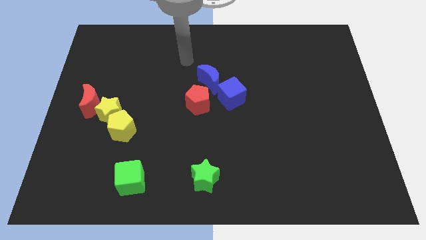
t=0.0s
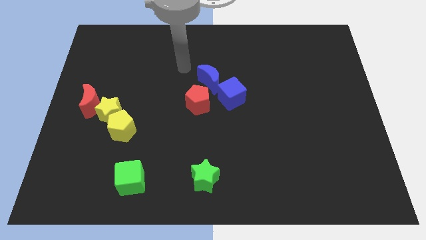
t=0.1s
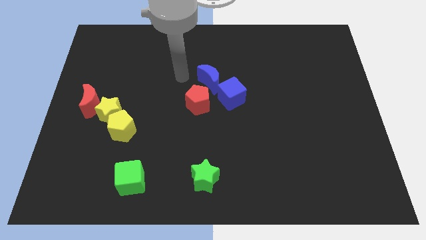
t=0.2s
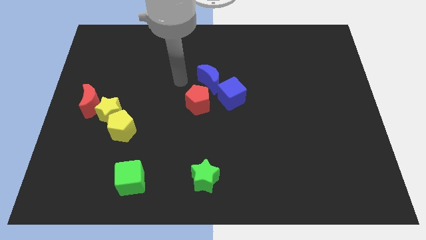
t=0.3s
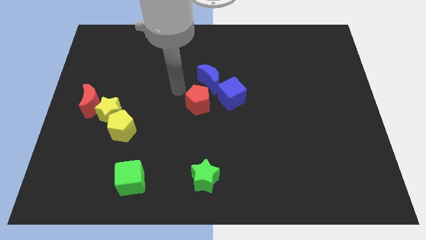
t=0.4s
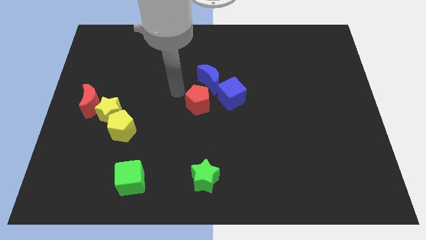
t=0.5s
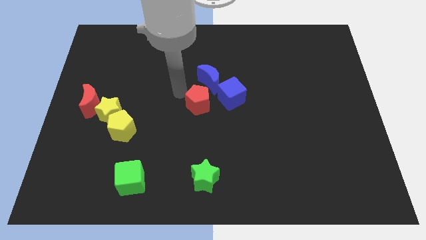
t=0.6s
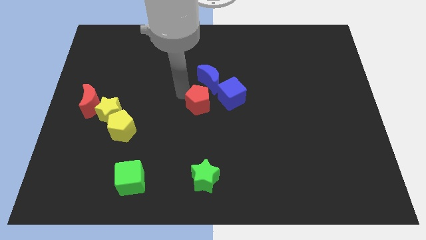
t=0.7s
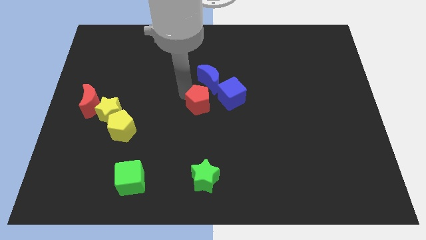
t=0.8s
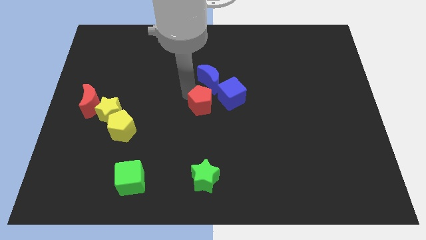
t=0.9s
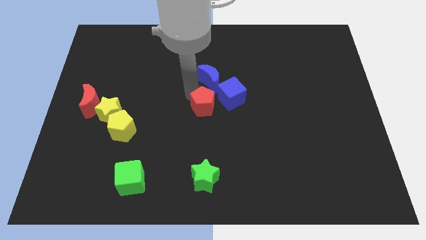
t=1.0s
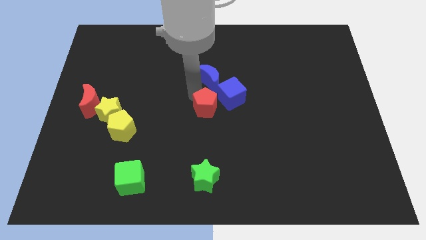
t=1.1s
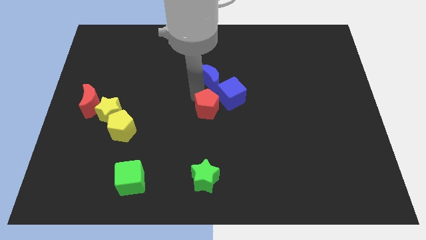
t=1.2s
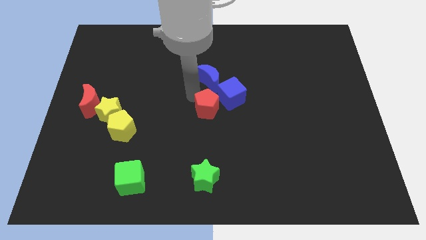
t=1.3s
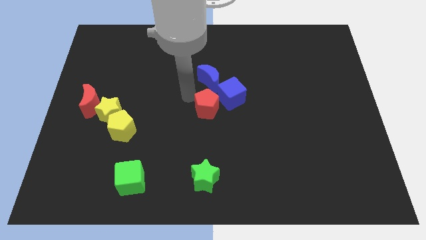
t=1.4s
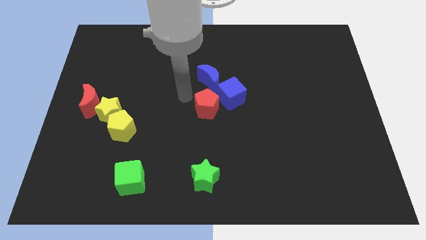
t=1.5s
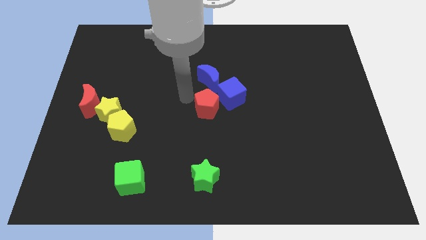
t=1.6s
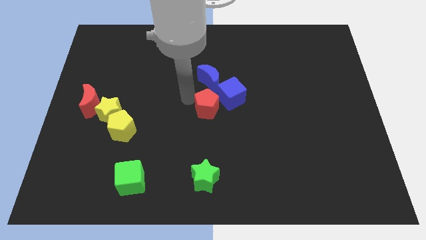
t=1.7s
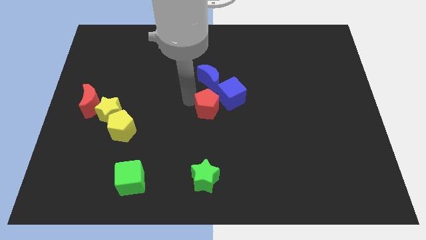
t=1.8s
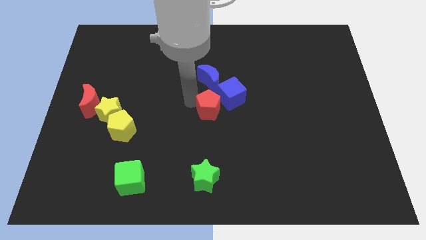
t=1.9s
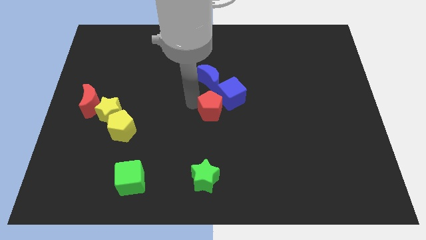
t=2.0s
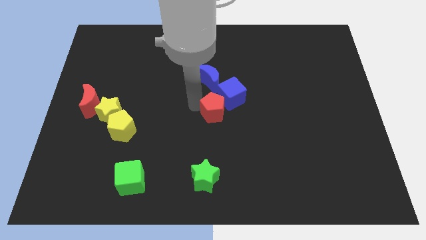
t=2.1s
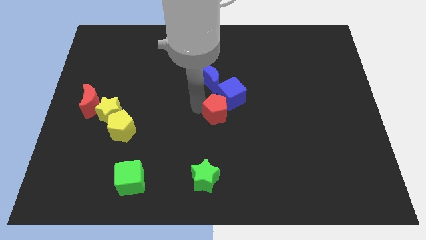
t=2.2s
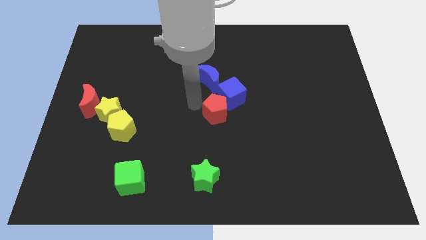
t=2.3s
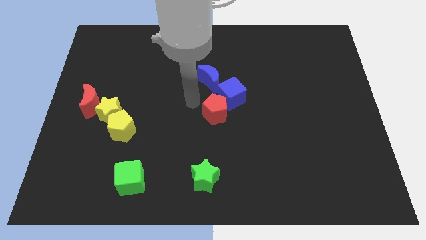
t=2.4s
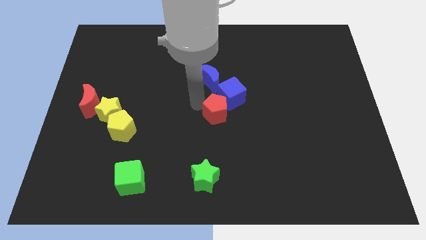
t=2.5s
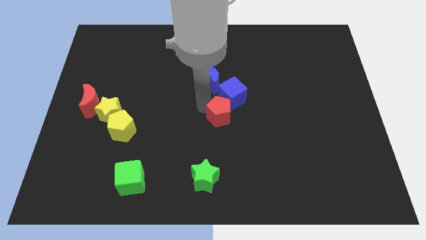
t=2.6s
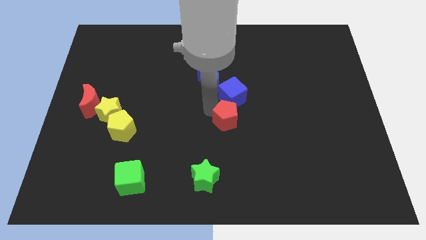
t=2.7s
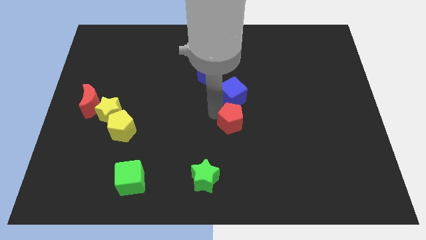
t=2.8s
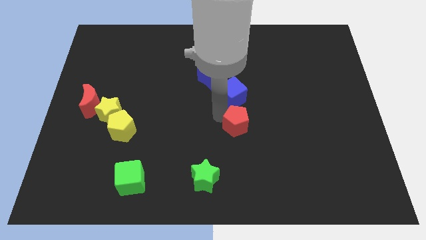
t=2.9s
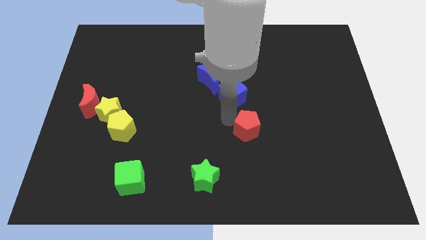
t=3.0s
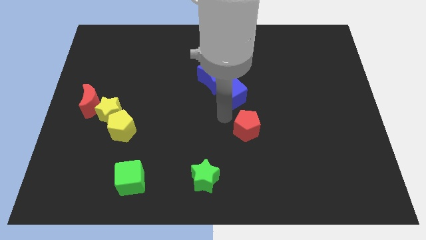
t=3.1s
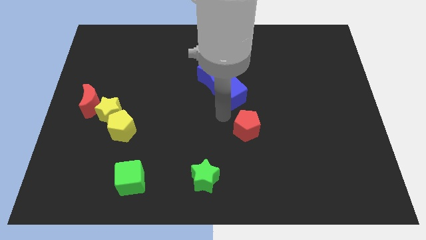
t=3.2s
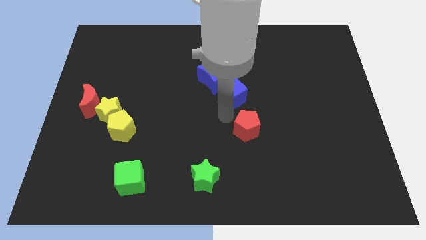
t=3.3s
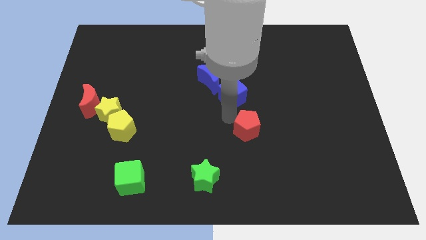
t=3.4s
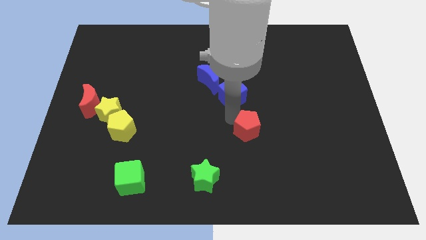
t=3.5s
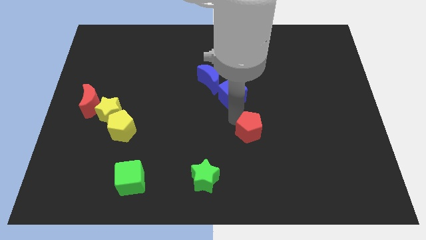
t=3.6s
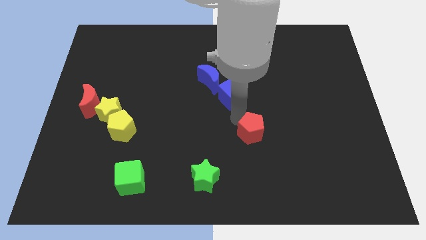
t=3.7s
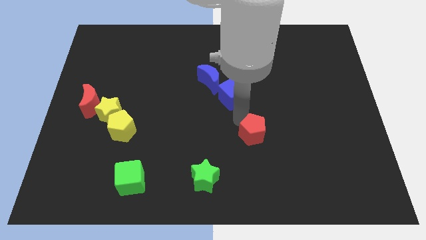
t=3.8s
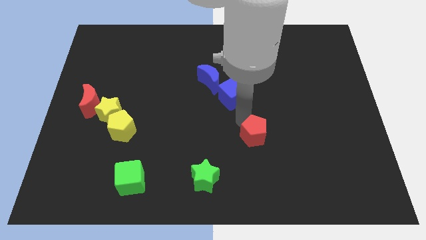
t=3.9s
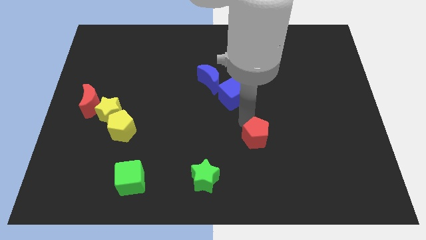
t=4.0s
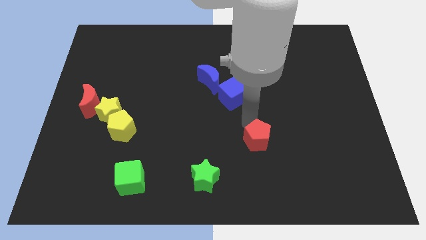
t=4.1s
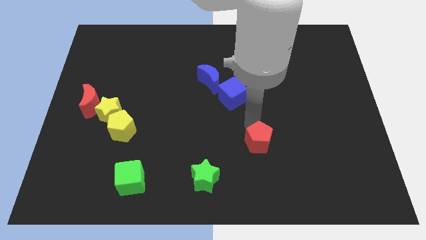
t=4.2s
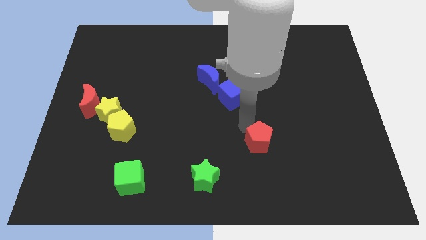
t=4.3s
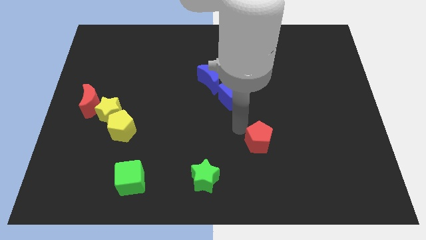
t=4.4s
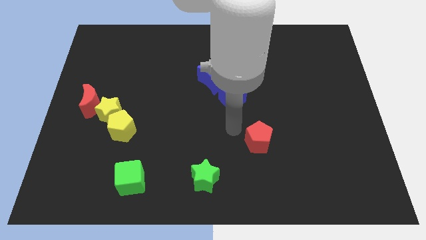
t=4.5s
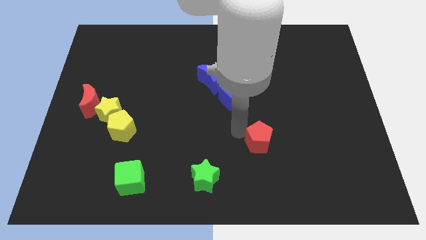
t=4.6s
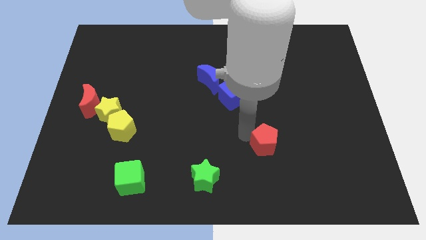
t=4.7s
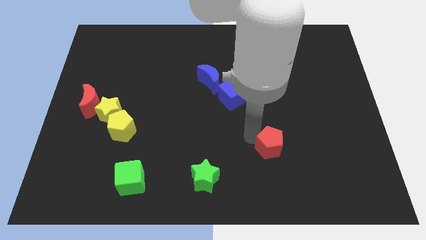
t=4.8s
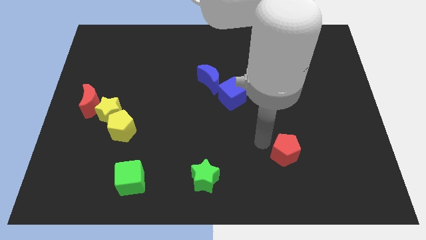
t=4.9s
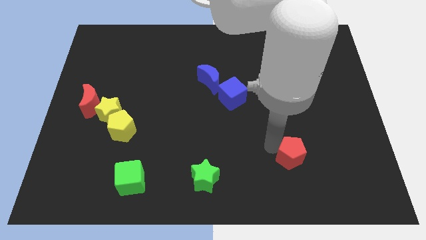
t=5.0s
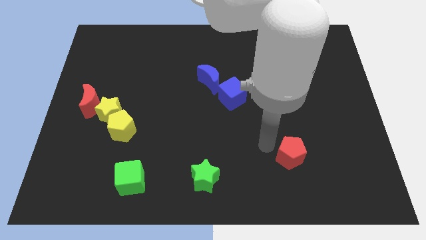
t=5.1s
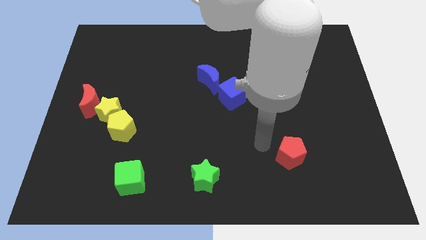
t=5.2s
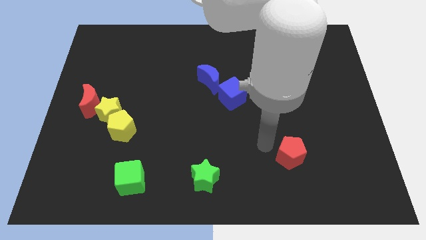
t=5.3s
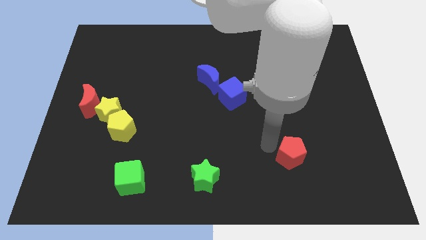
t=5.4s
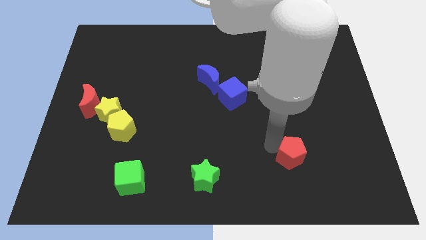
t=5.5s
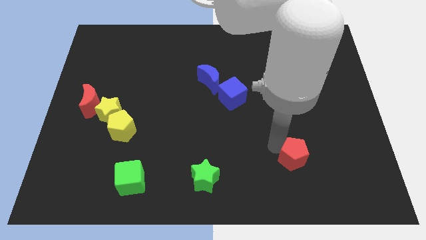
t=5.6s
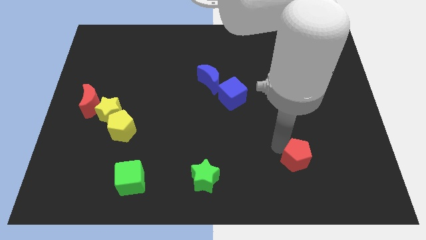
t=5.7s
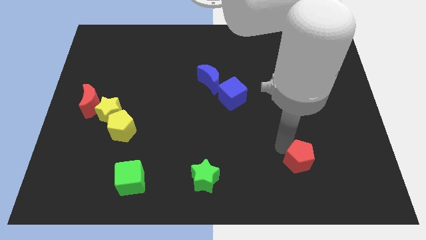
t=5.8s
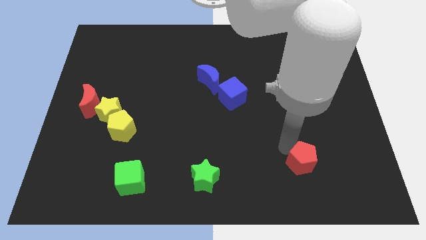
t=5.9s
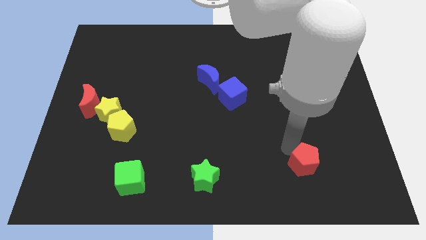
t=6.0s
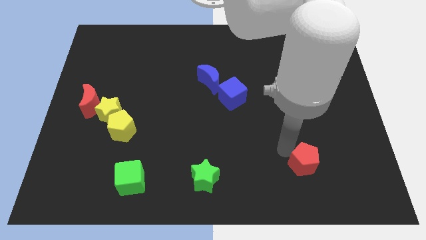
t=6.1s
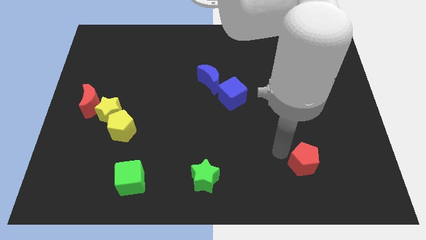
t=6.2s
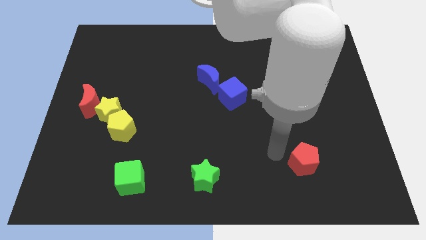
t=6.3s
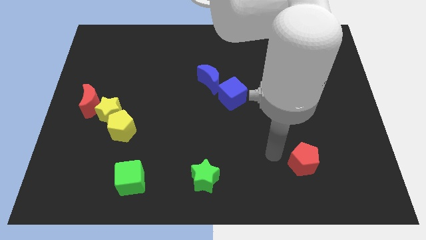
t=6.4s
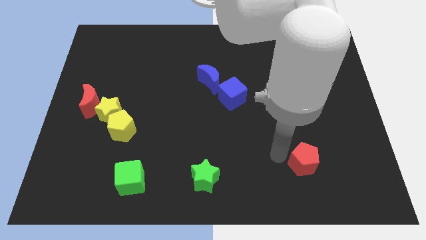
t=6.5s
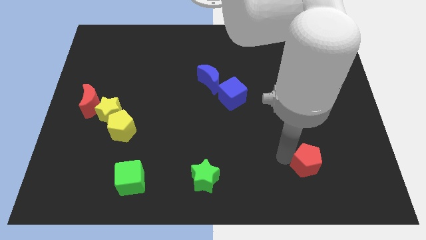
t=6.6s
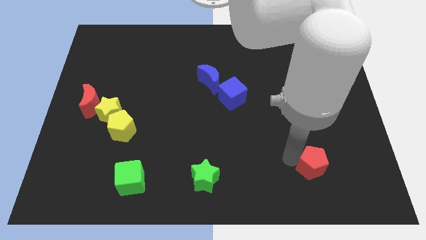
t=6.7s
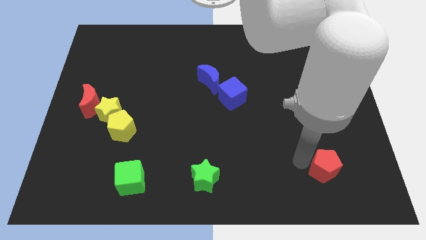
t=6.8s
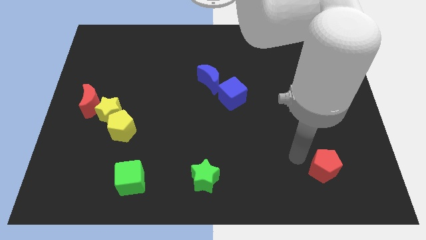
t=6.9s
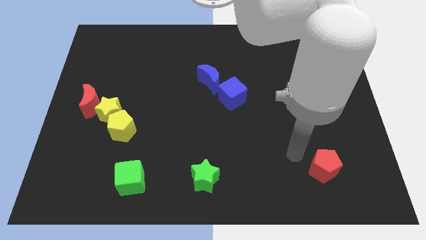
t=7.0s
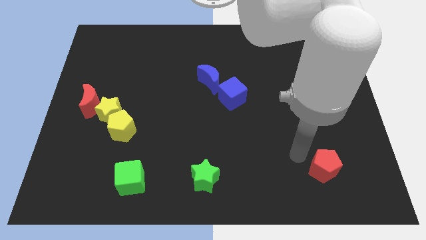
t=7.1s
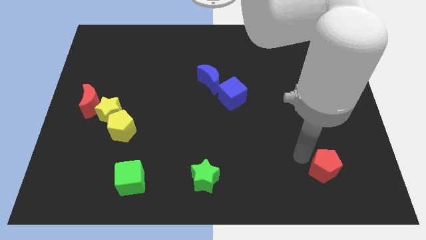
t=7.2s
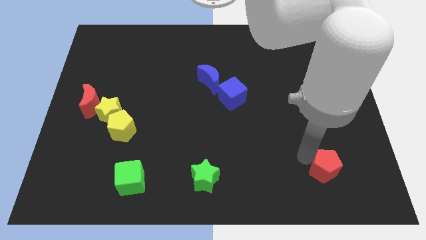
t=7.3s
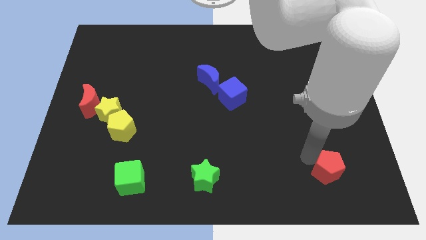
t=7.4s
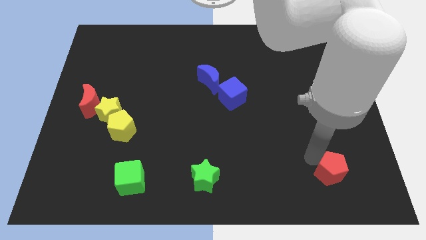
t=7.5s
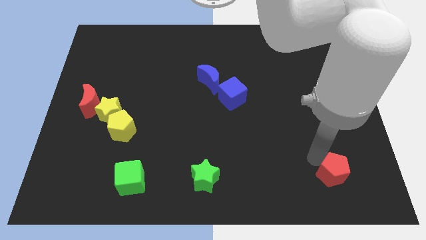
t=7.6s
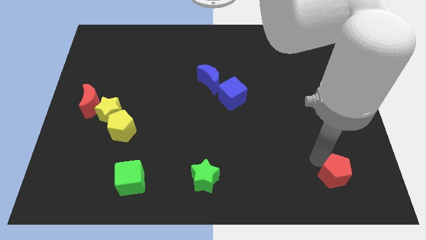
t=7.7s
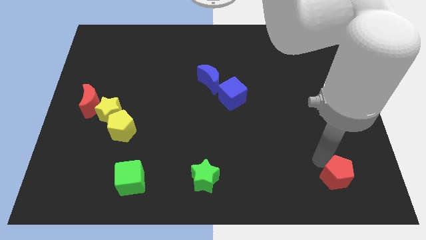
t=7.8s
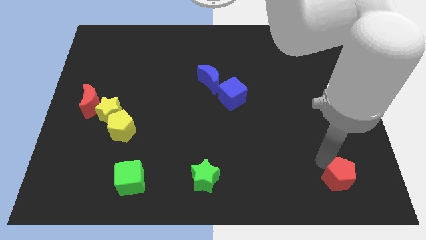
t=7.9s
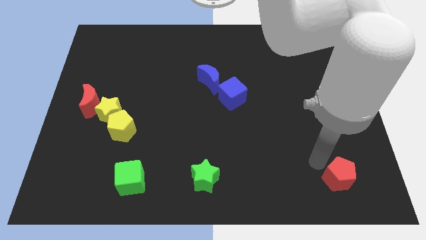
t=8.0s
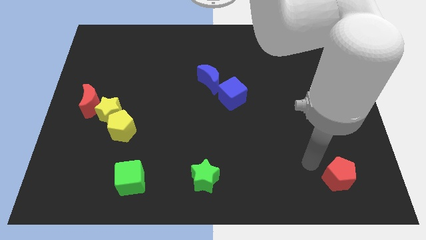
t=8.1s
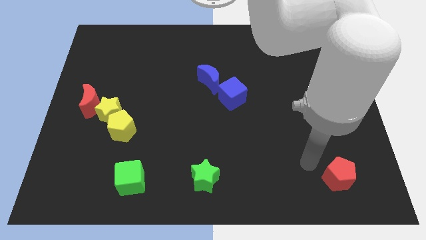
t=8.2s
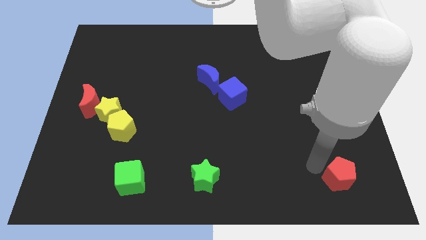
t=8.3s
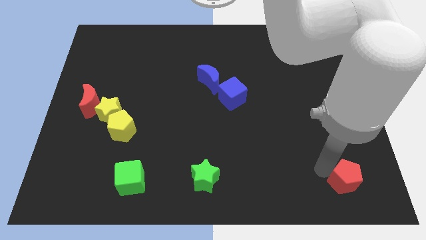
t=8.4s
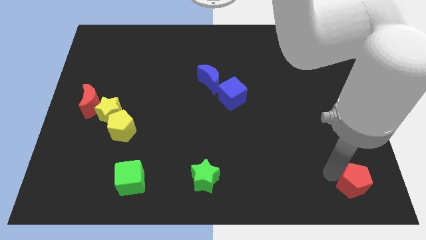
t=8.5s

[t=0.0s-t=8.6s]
put the red pentagon to the bottom right
